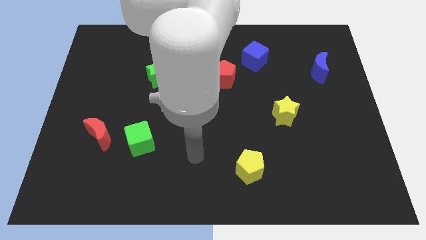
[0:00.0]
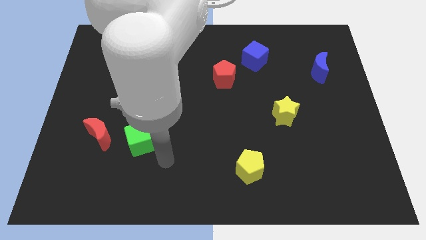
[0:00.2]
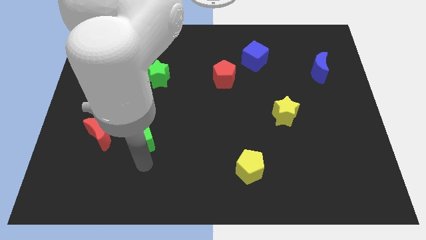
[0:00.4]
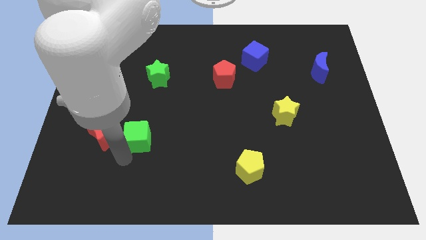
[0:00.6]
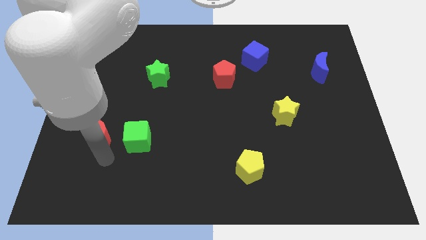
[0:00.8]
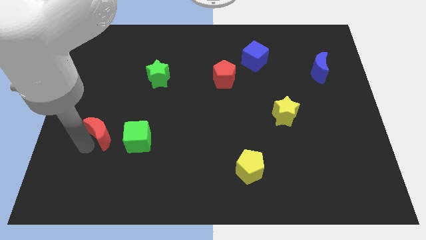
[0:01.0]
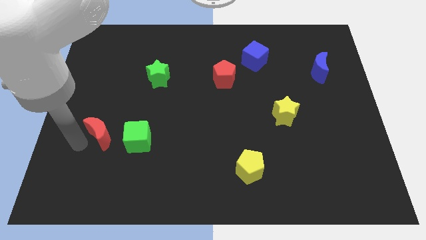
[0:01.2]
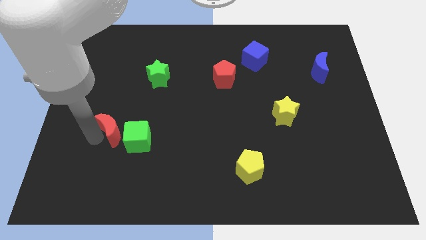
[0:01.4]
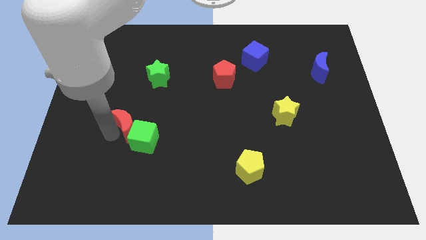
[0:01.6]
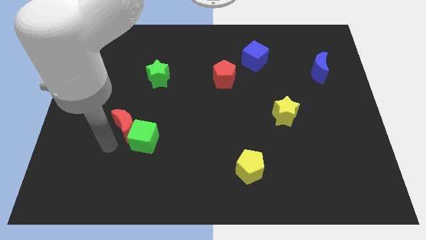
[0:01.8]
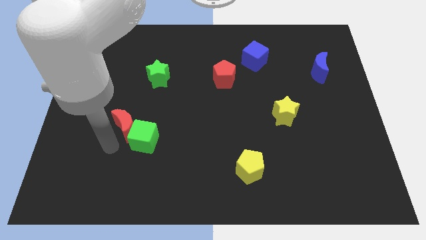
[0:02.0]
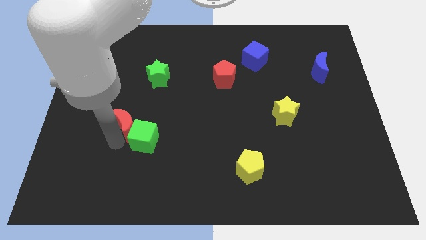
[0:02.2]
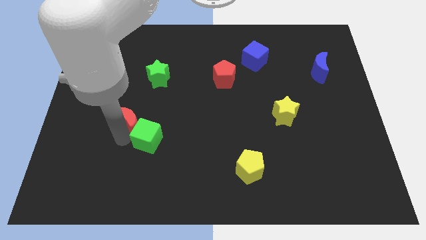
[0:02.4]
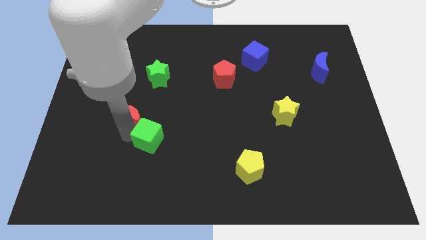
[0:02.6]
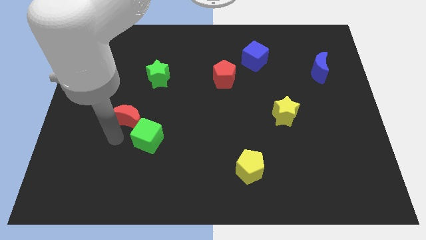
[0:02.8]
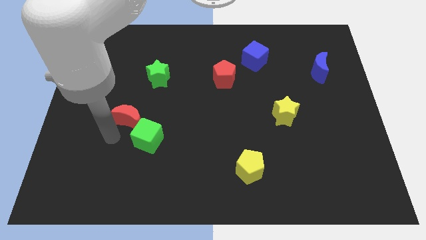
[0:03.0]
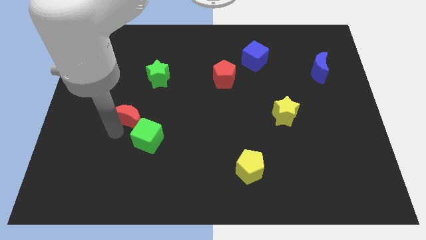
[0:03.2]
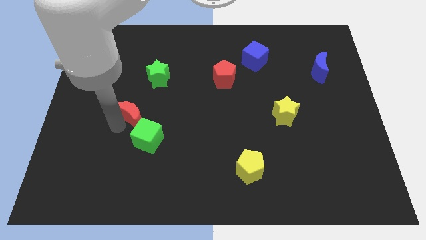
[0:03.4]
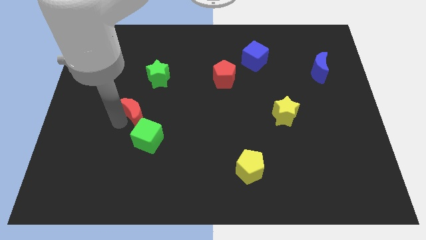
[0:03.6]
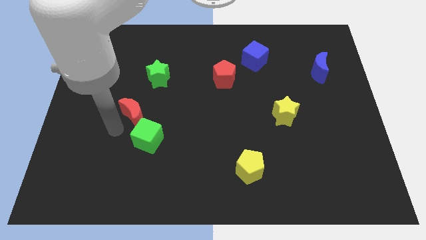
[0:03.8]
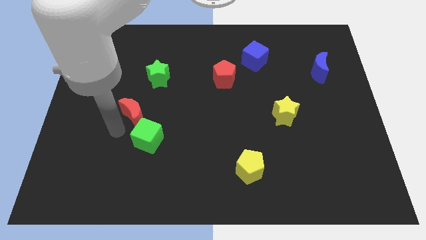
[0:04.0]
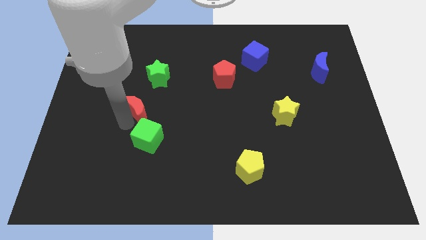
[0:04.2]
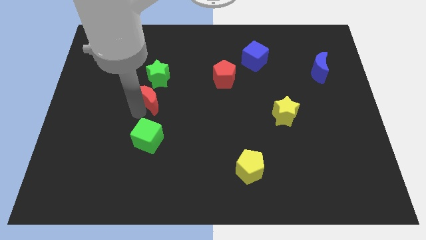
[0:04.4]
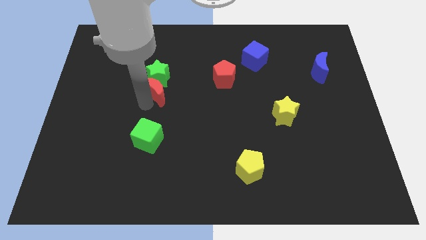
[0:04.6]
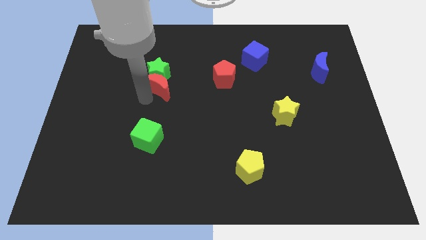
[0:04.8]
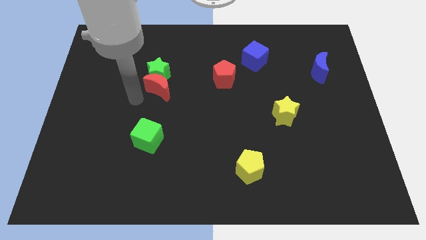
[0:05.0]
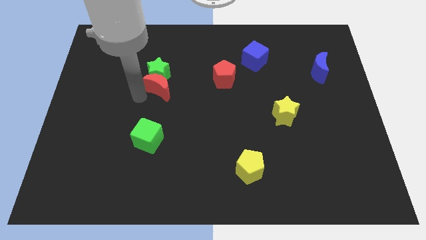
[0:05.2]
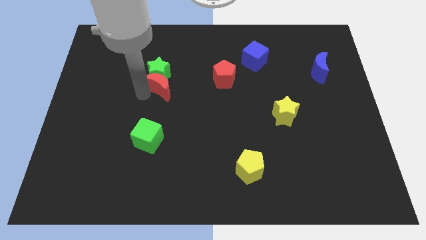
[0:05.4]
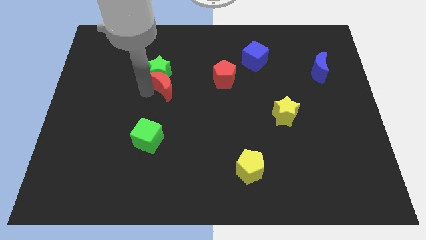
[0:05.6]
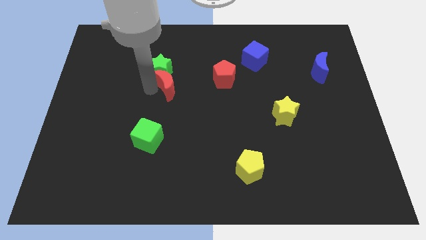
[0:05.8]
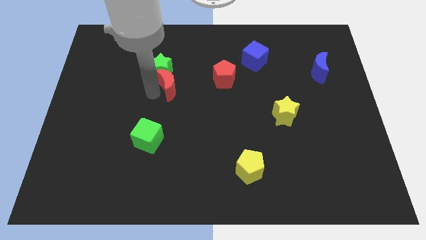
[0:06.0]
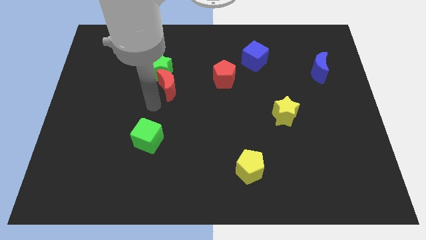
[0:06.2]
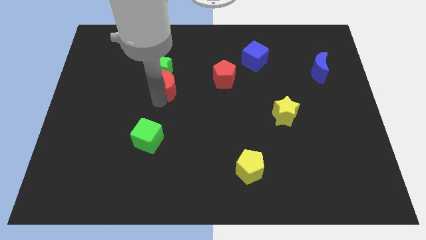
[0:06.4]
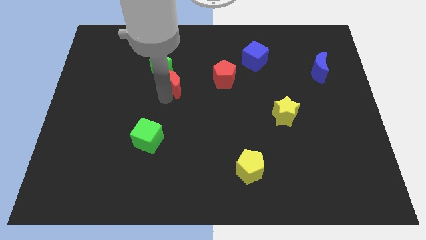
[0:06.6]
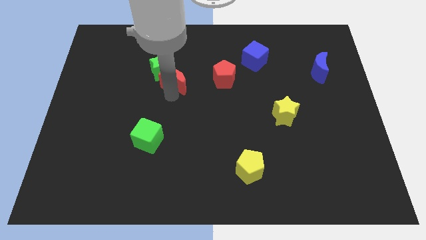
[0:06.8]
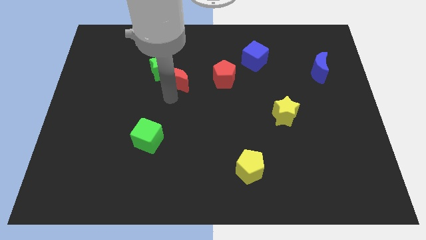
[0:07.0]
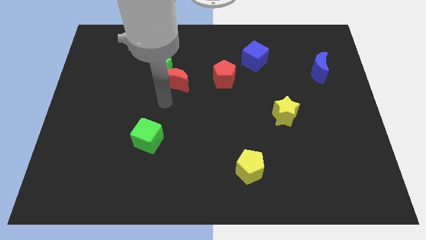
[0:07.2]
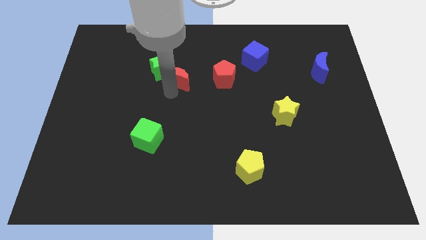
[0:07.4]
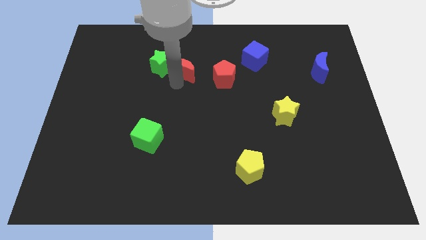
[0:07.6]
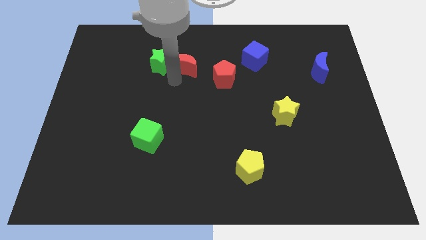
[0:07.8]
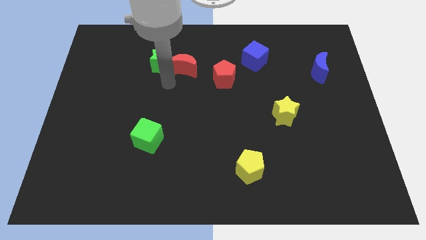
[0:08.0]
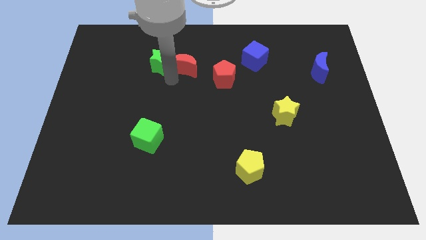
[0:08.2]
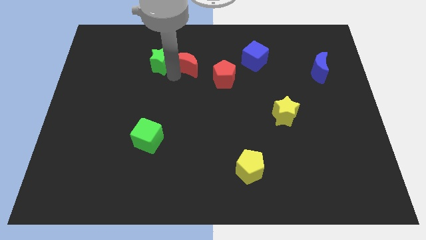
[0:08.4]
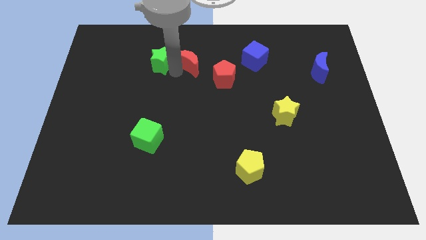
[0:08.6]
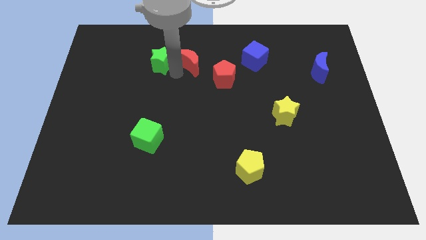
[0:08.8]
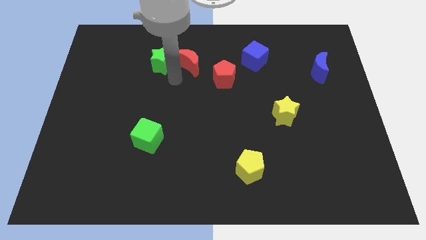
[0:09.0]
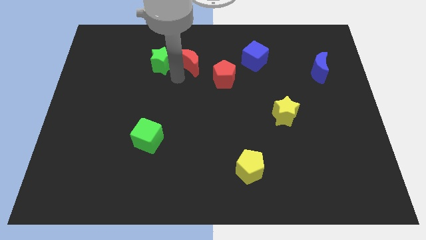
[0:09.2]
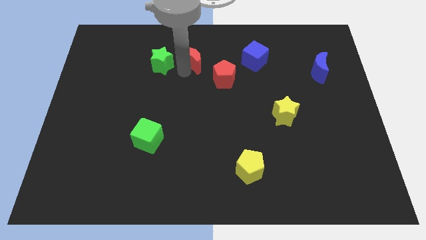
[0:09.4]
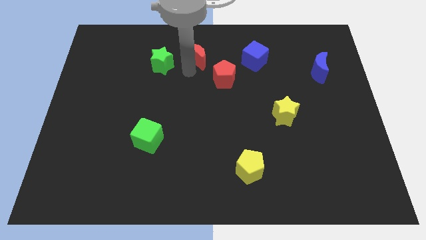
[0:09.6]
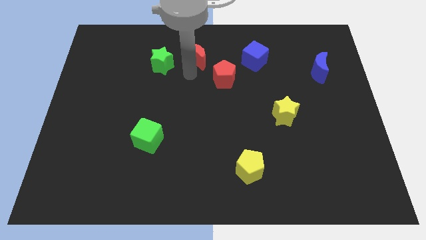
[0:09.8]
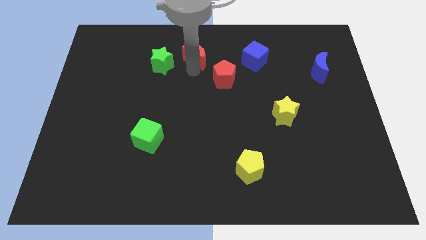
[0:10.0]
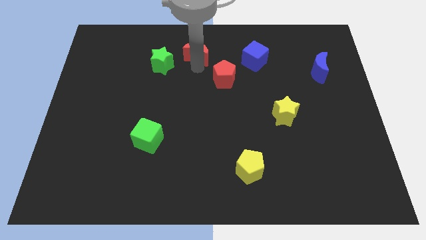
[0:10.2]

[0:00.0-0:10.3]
push the red moon to the top side

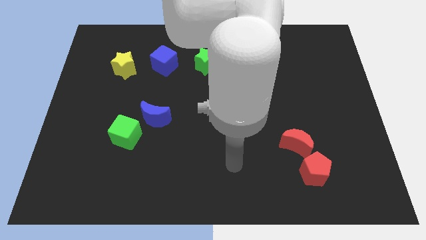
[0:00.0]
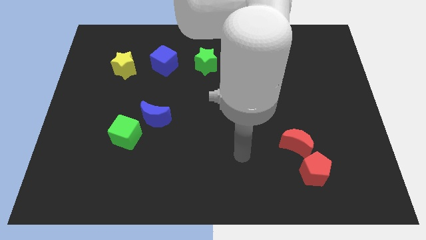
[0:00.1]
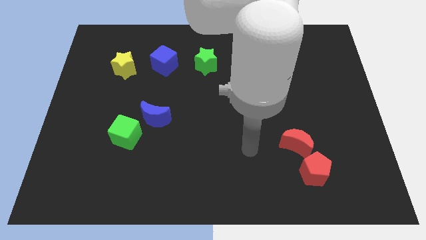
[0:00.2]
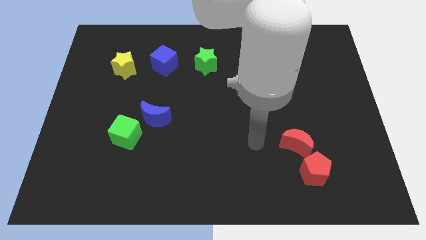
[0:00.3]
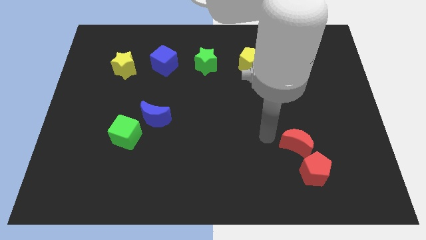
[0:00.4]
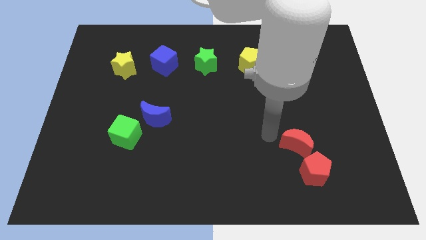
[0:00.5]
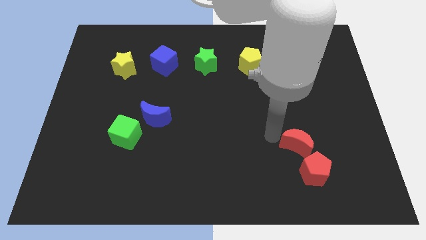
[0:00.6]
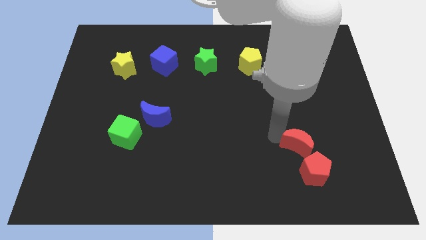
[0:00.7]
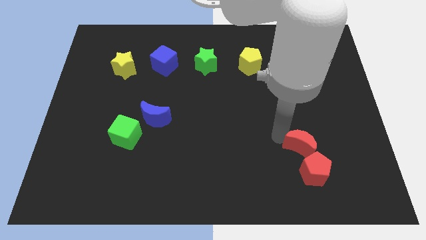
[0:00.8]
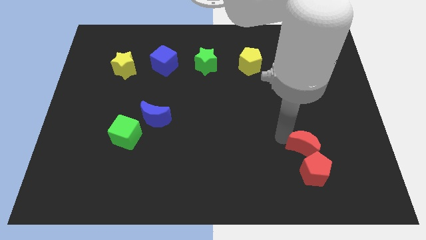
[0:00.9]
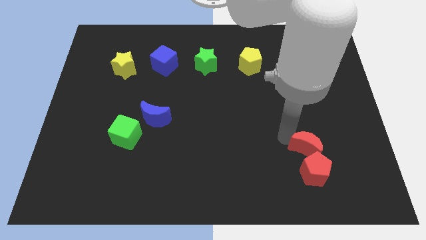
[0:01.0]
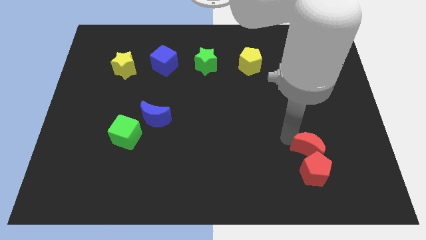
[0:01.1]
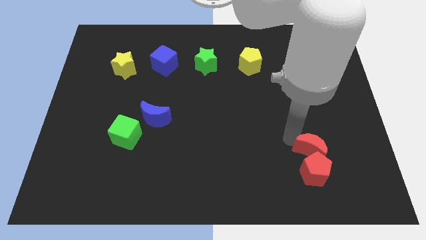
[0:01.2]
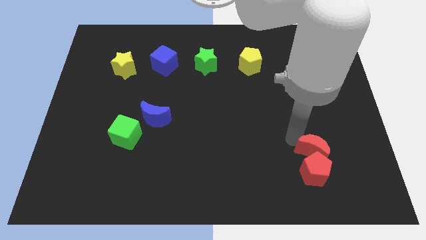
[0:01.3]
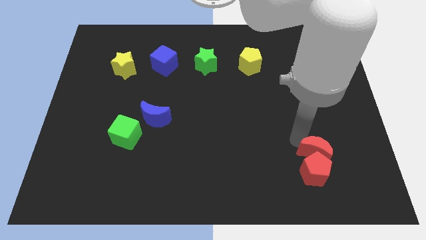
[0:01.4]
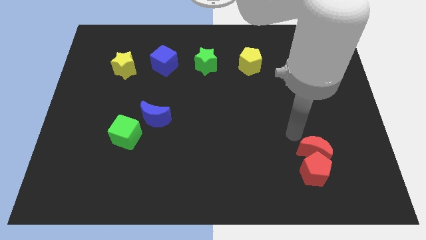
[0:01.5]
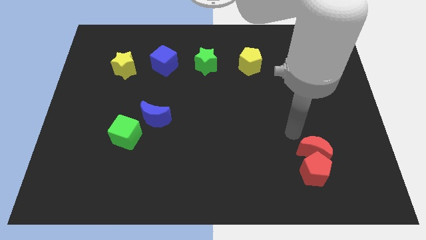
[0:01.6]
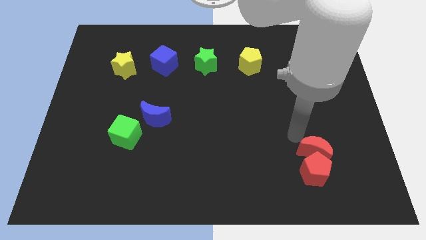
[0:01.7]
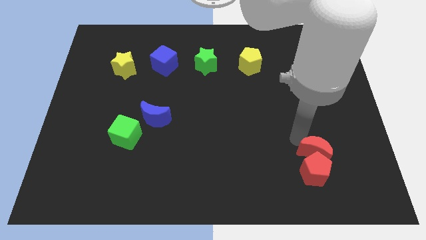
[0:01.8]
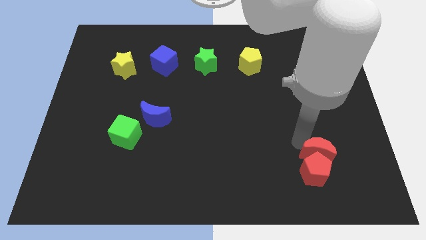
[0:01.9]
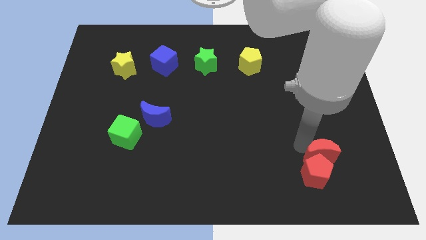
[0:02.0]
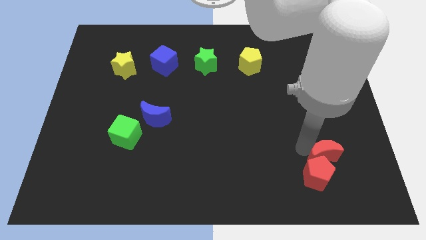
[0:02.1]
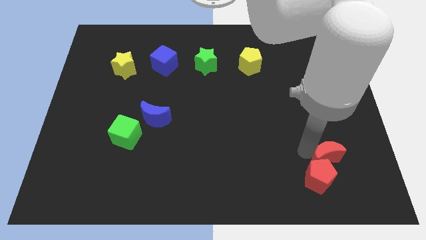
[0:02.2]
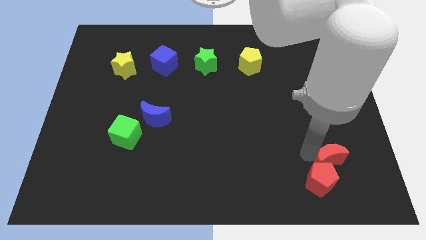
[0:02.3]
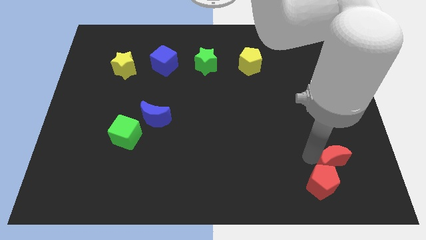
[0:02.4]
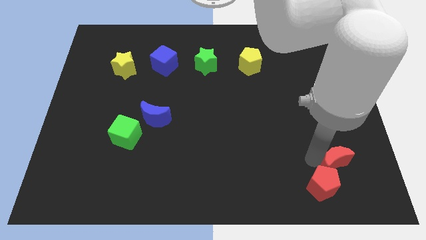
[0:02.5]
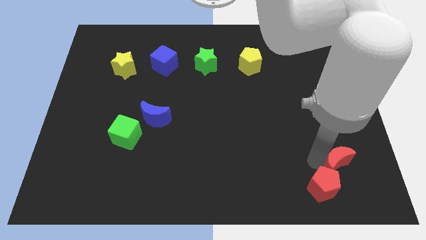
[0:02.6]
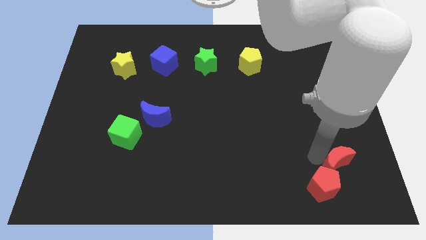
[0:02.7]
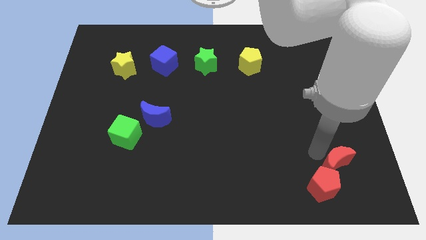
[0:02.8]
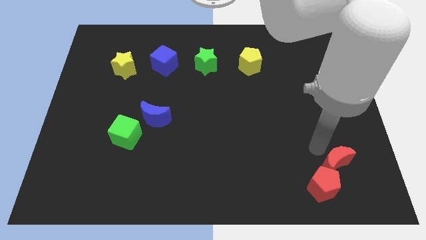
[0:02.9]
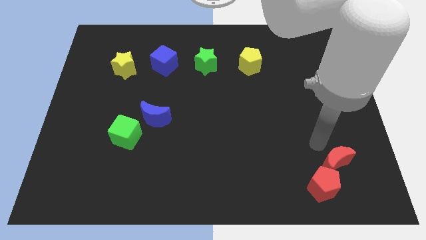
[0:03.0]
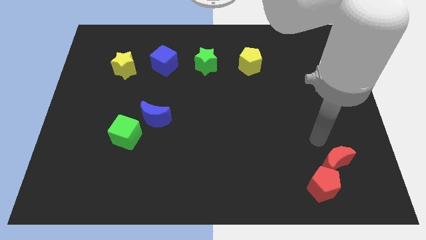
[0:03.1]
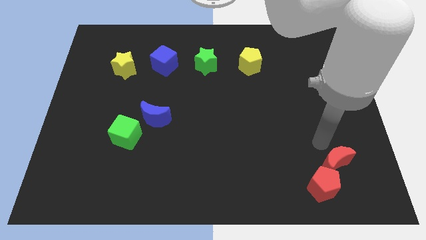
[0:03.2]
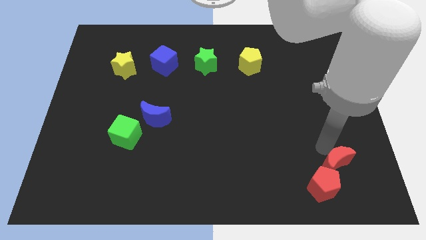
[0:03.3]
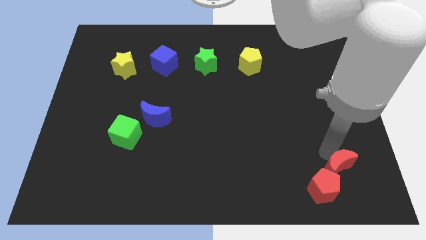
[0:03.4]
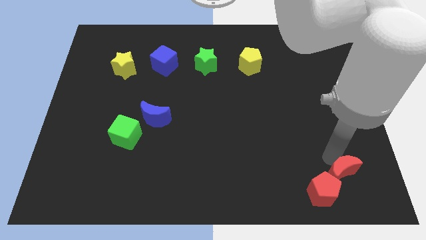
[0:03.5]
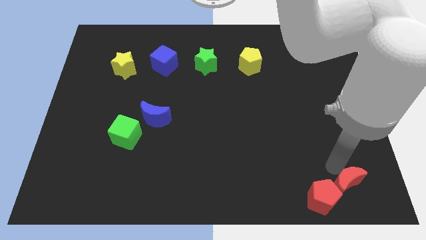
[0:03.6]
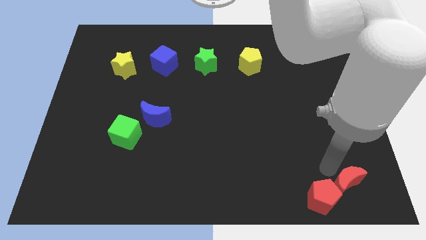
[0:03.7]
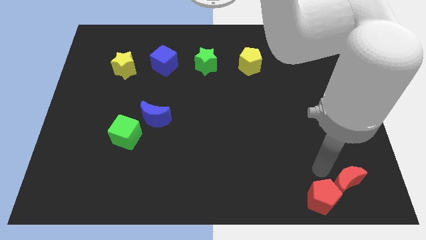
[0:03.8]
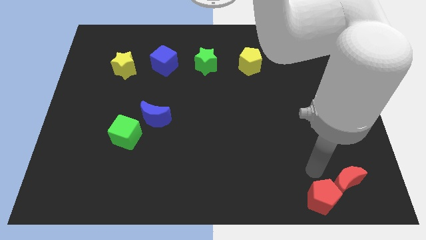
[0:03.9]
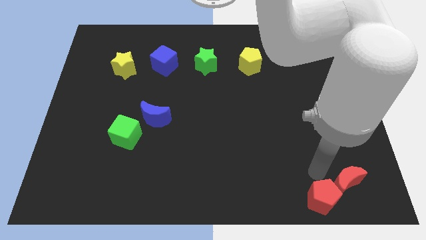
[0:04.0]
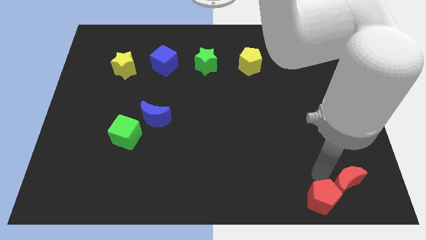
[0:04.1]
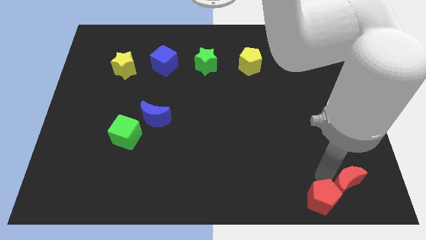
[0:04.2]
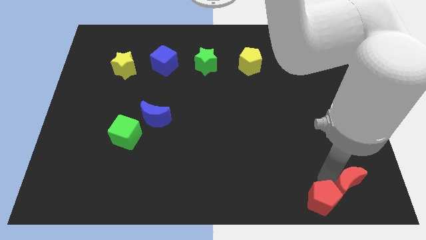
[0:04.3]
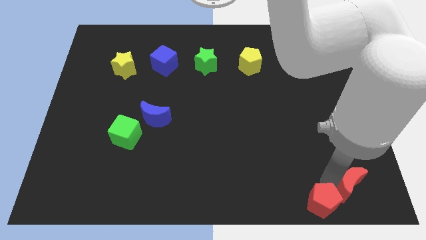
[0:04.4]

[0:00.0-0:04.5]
move the red moon to the lower right corner
